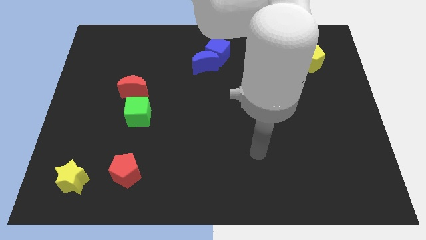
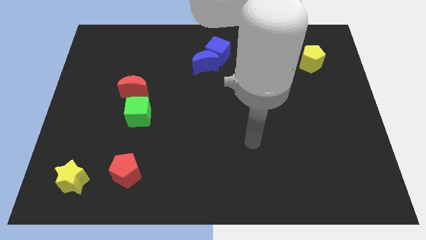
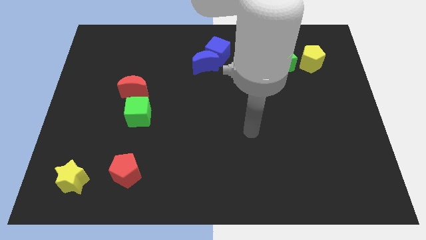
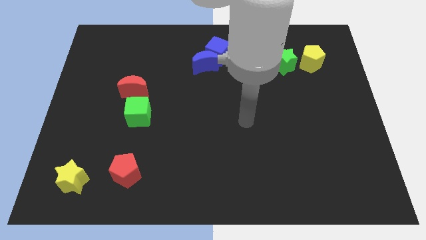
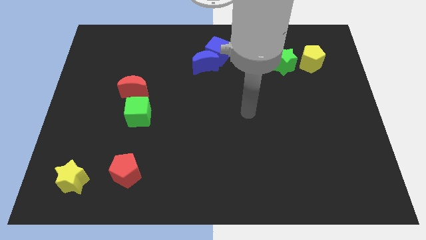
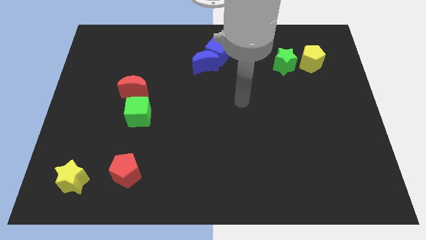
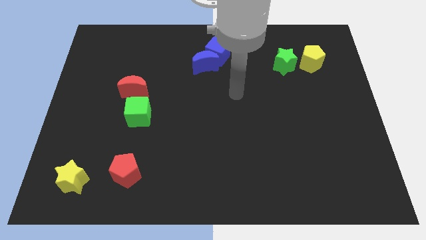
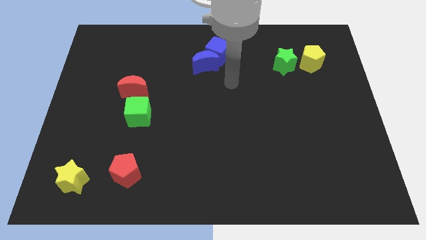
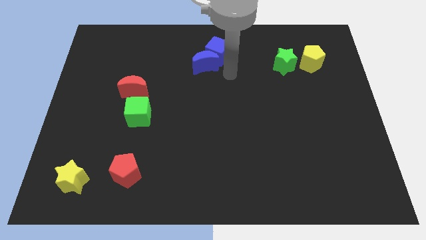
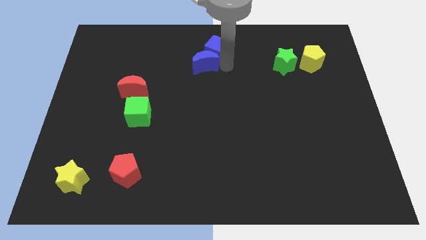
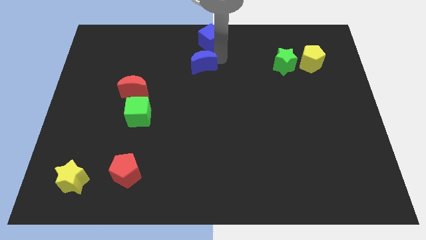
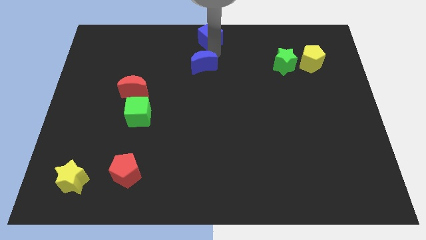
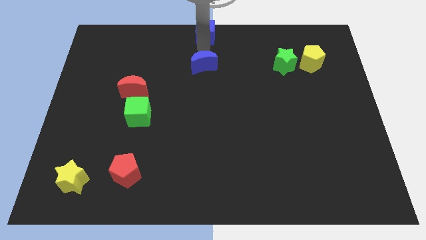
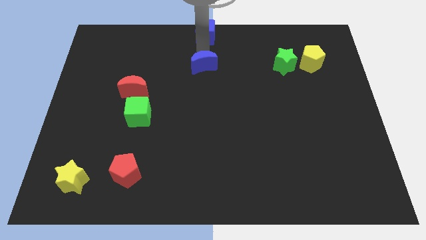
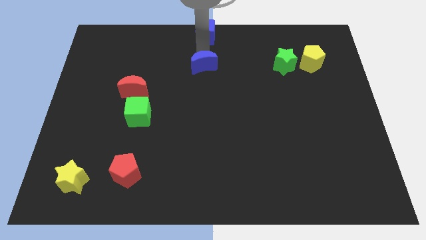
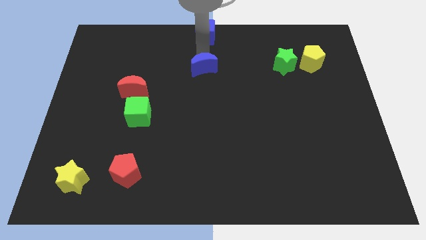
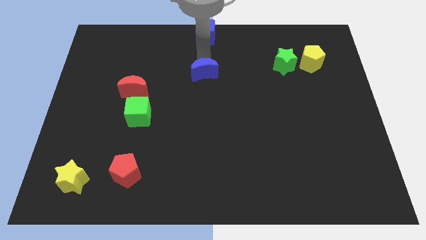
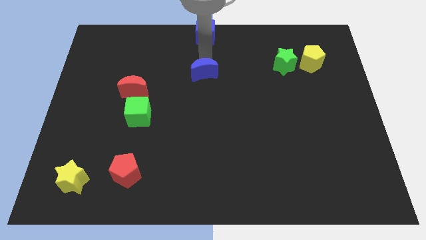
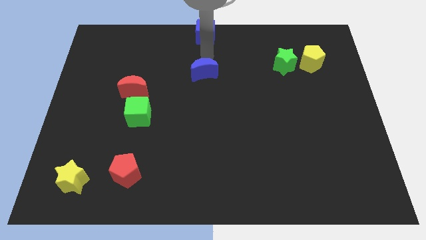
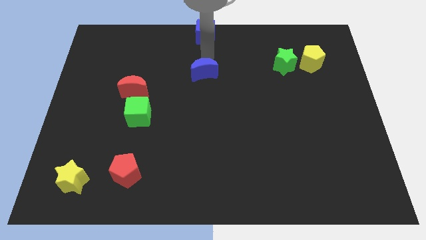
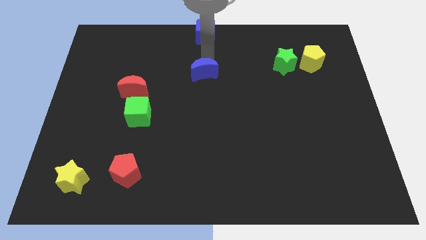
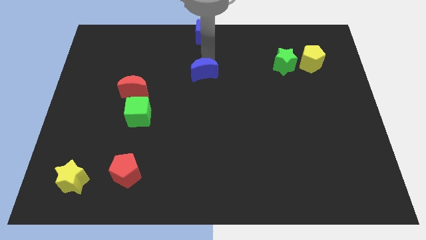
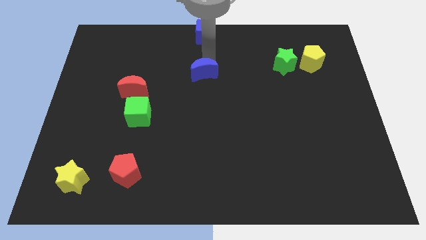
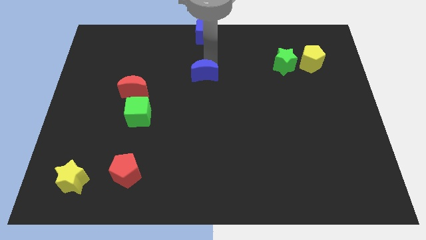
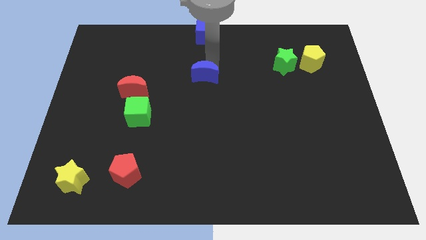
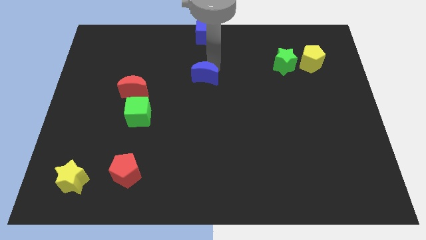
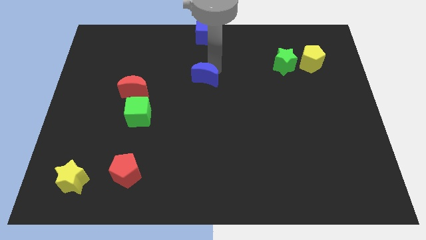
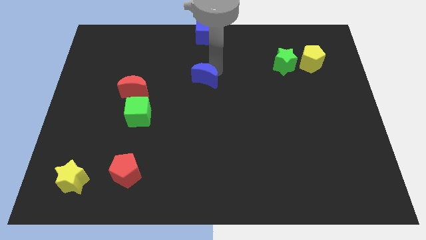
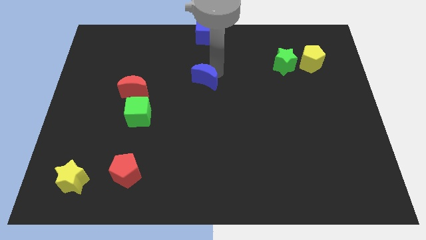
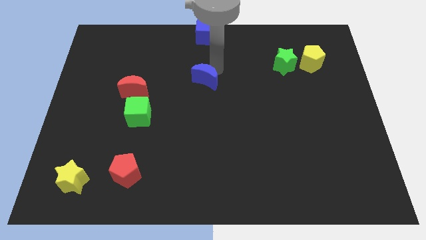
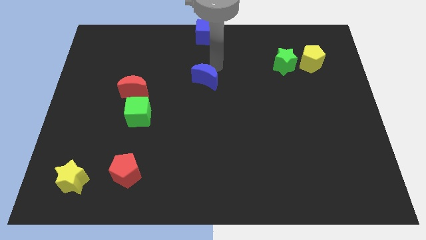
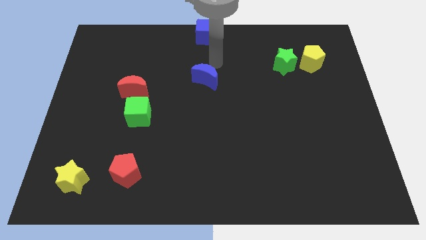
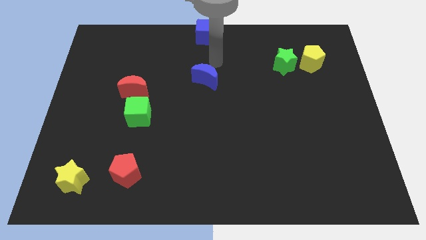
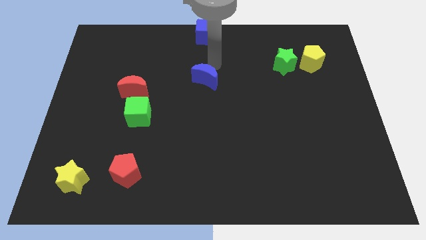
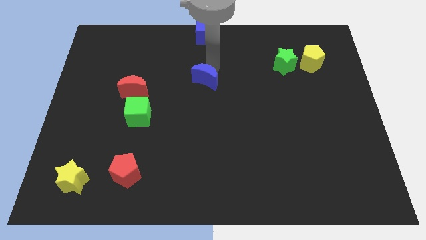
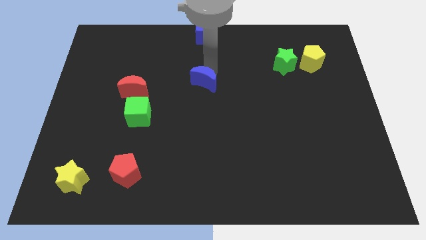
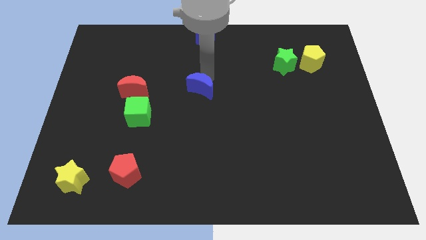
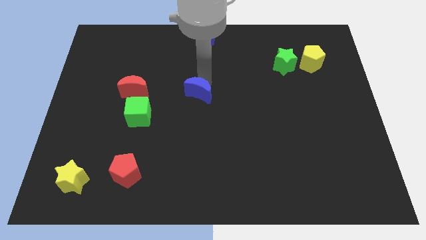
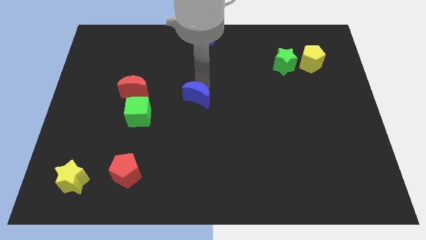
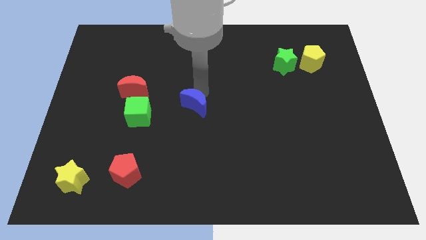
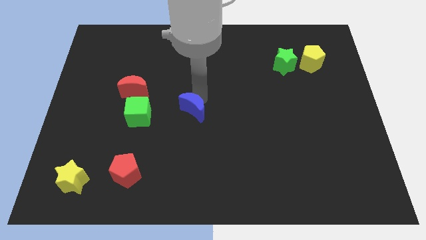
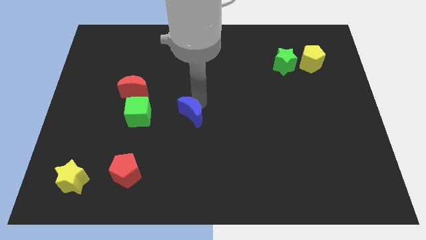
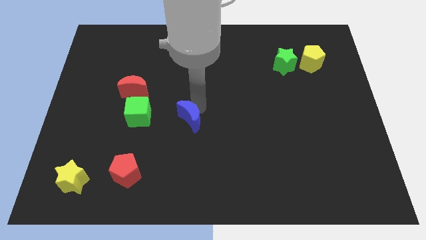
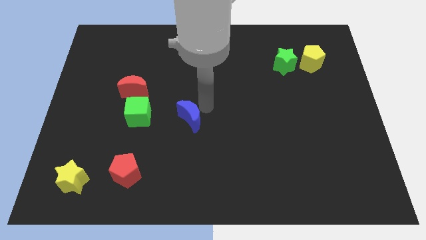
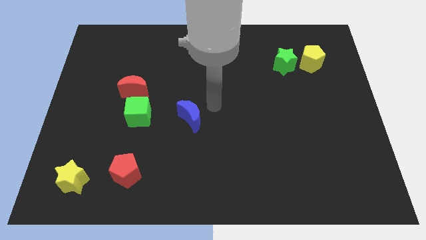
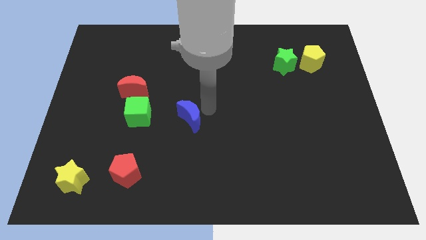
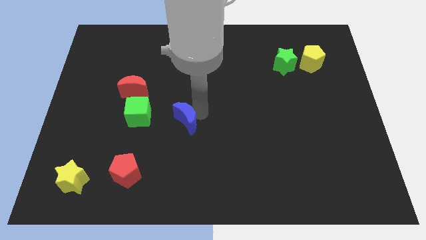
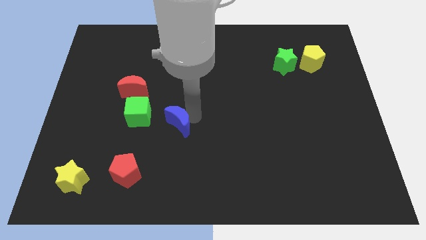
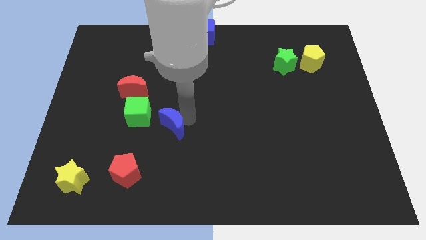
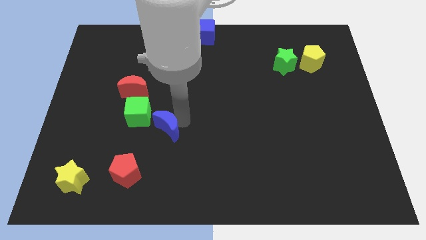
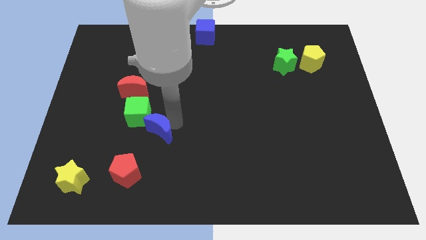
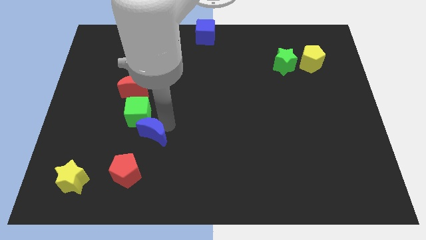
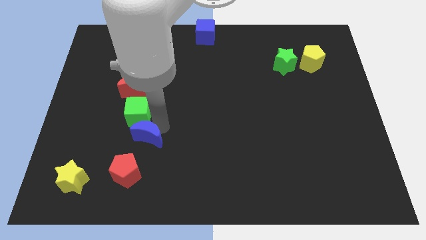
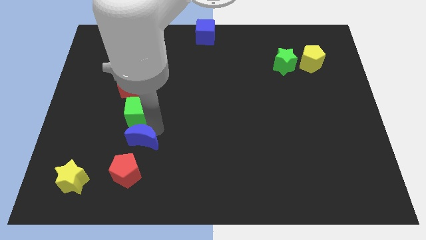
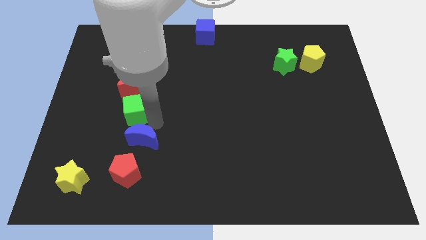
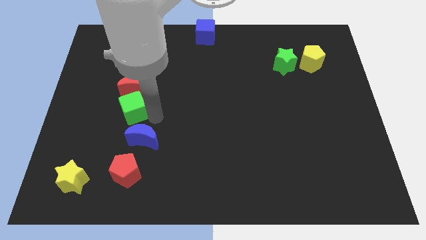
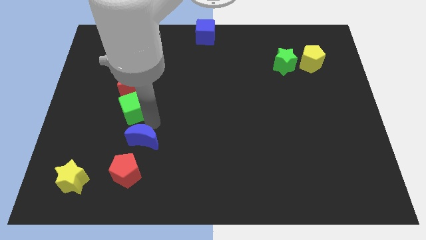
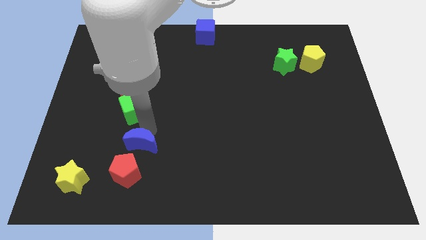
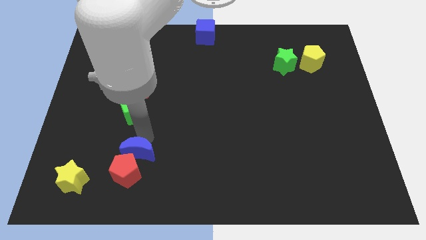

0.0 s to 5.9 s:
move the blue moon to the red pentagon
